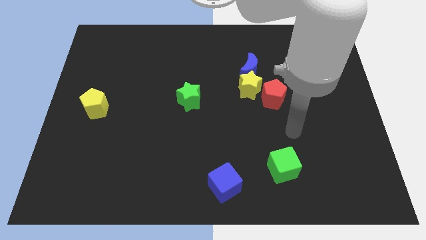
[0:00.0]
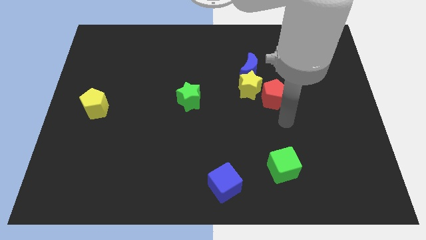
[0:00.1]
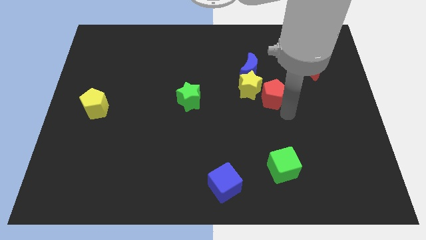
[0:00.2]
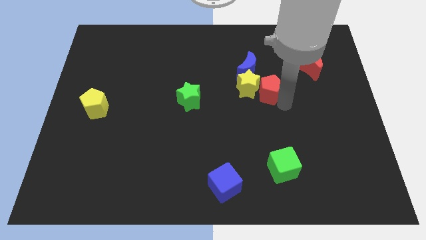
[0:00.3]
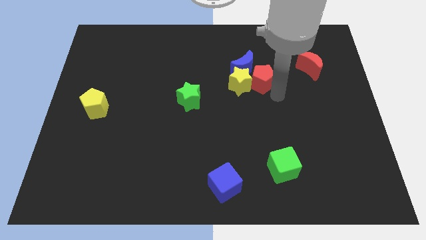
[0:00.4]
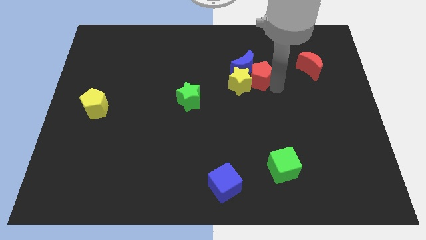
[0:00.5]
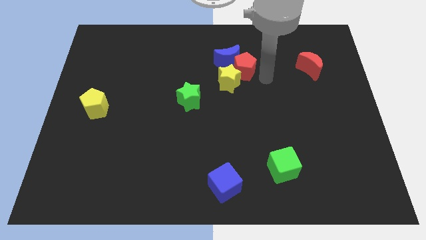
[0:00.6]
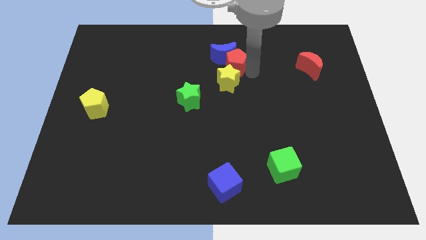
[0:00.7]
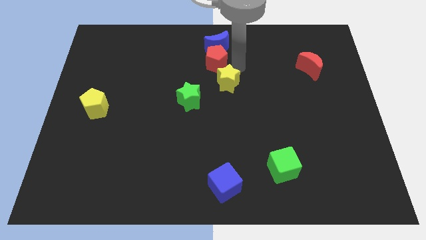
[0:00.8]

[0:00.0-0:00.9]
pull the yellow star apart from the blue moon and red pentagon

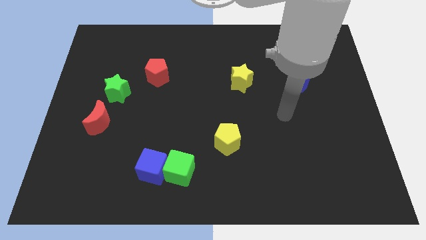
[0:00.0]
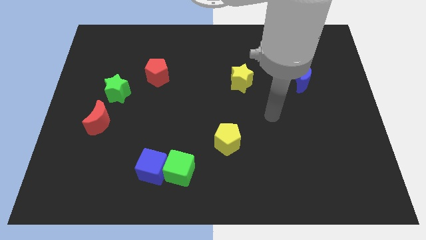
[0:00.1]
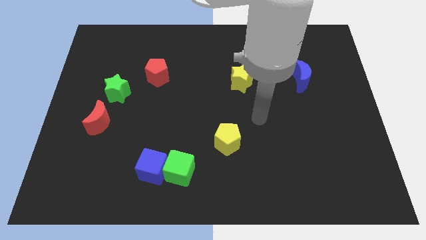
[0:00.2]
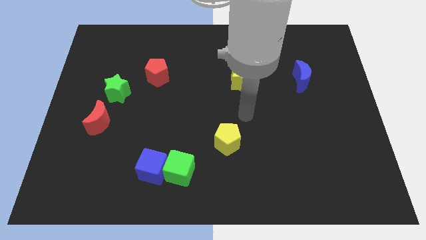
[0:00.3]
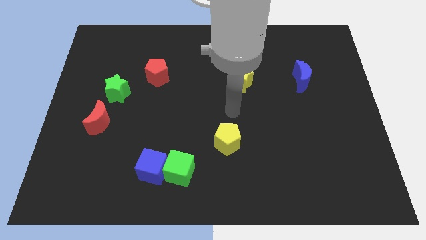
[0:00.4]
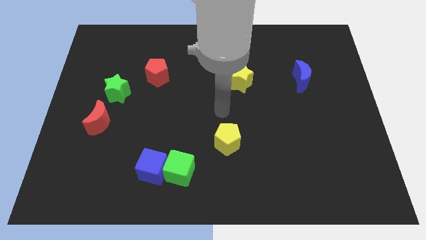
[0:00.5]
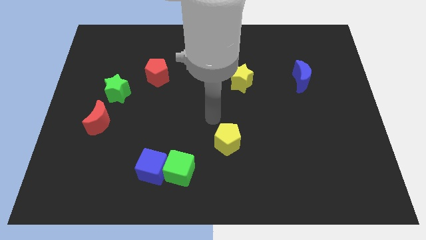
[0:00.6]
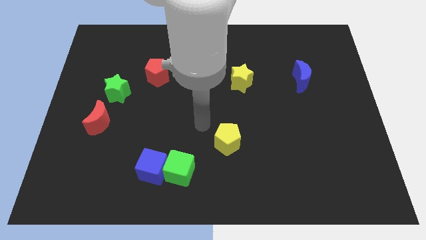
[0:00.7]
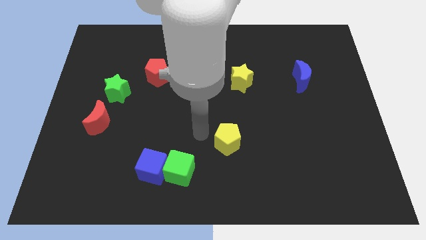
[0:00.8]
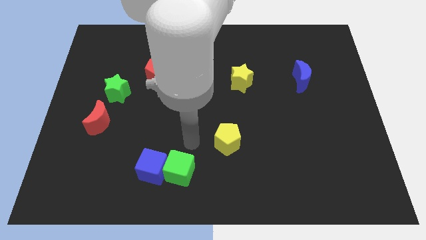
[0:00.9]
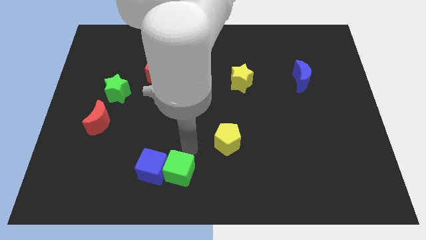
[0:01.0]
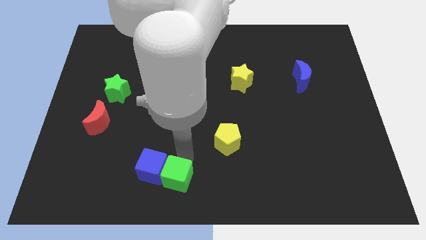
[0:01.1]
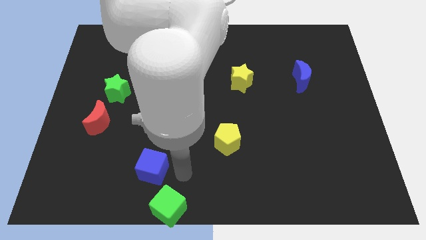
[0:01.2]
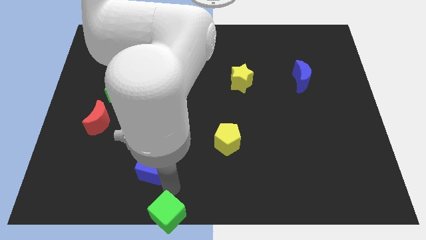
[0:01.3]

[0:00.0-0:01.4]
pull the blue cube apart from the green cube

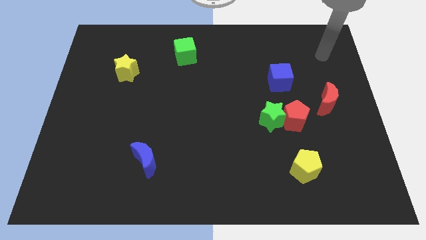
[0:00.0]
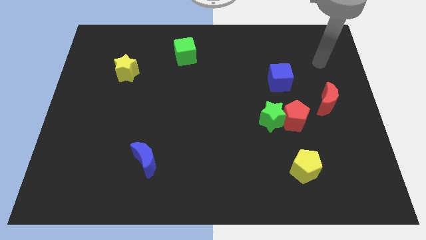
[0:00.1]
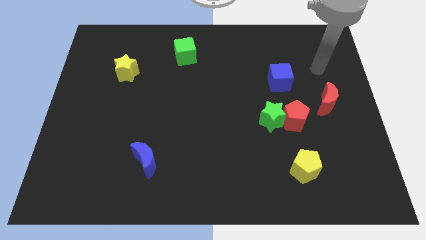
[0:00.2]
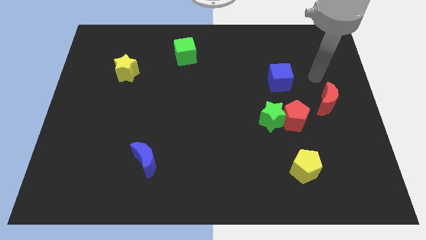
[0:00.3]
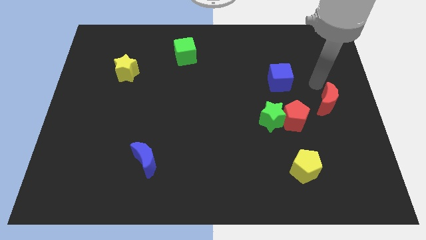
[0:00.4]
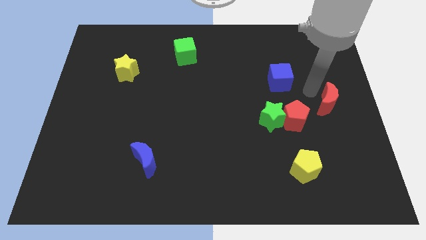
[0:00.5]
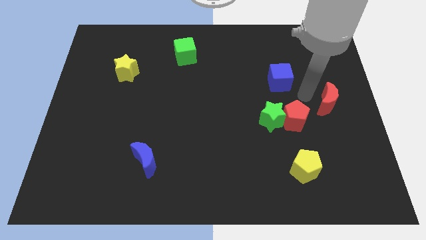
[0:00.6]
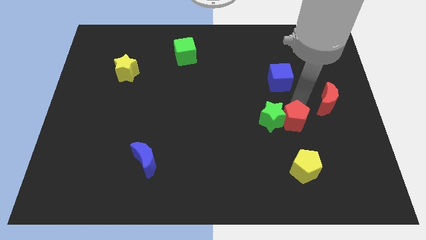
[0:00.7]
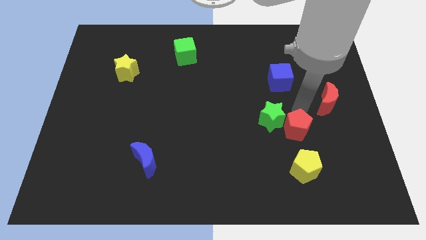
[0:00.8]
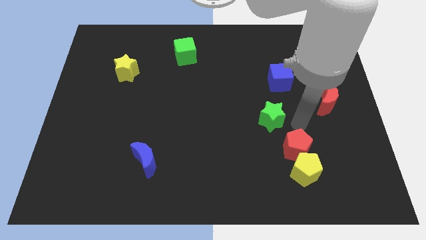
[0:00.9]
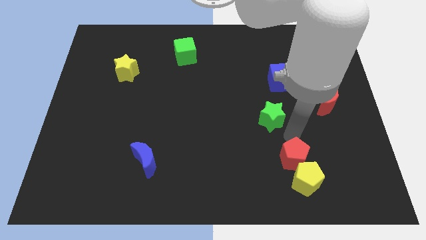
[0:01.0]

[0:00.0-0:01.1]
separate the green star from the red pentagon

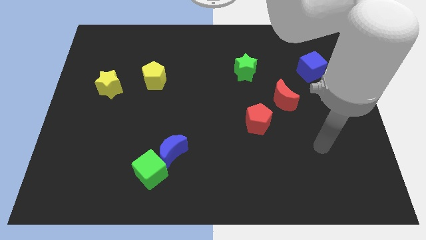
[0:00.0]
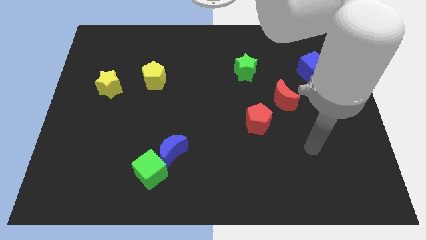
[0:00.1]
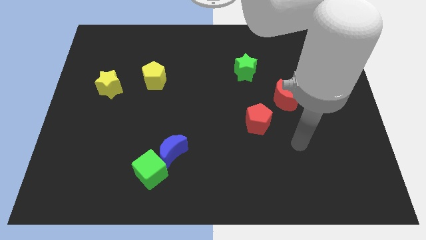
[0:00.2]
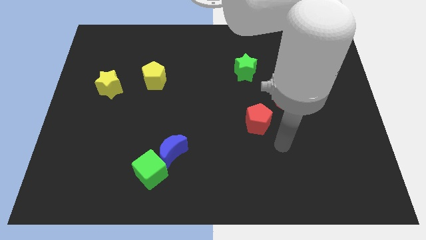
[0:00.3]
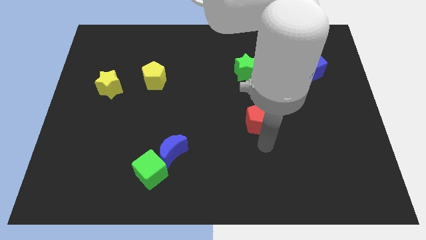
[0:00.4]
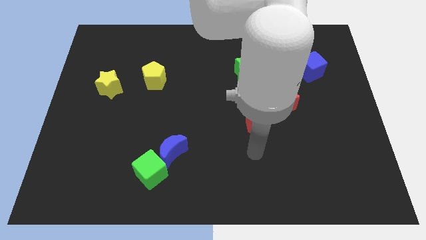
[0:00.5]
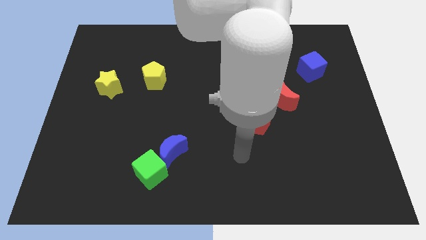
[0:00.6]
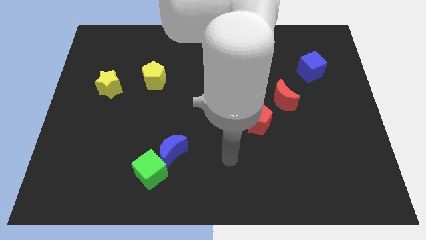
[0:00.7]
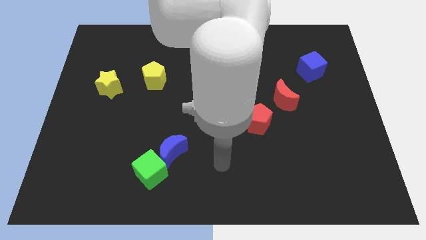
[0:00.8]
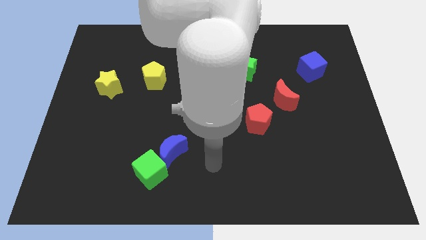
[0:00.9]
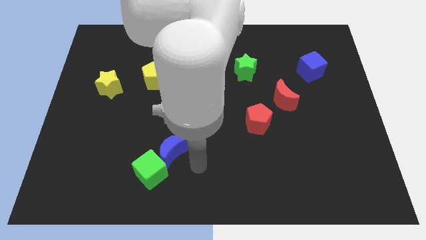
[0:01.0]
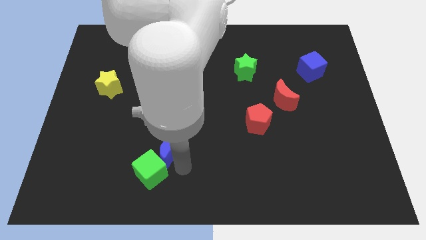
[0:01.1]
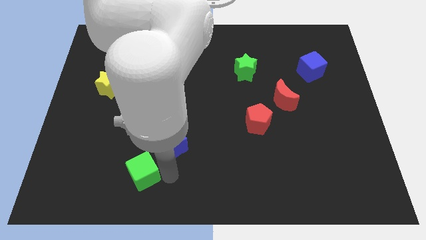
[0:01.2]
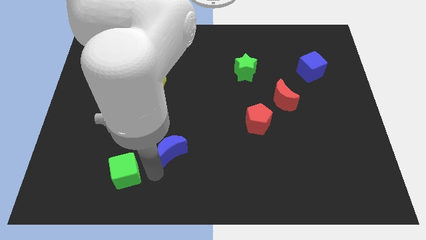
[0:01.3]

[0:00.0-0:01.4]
move the blue moon away from the green cube

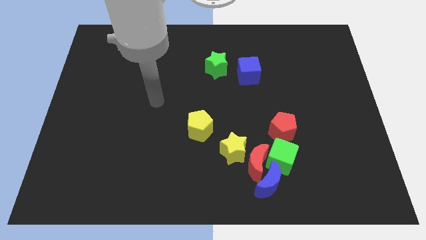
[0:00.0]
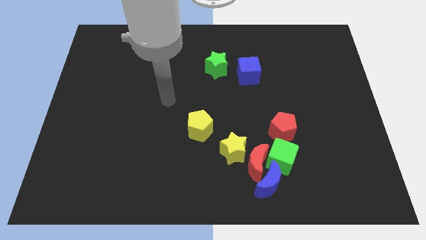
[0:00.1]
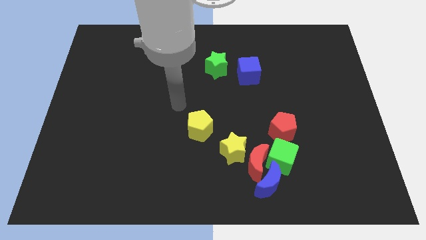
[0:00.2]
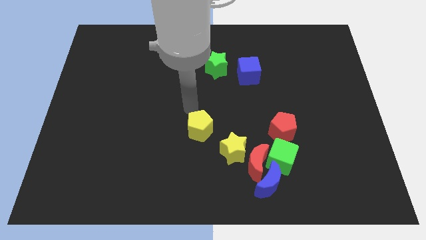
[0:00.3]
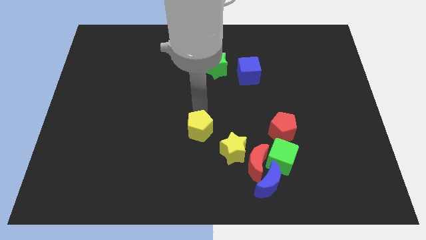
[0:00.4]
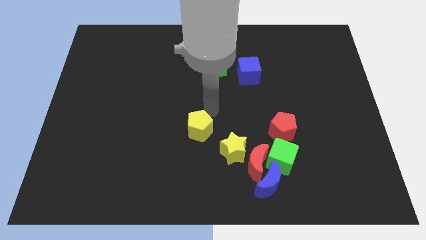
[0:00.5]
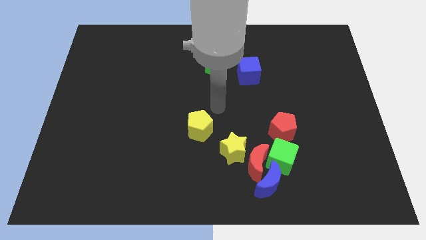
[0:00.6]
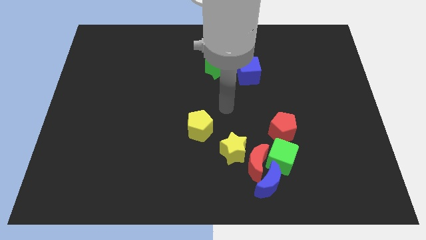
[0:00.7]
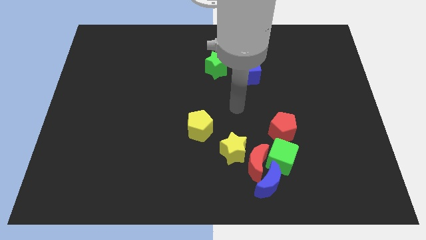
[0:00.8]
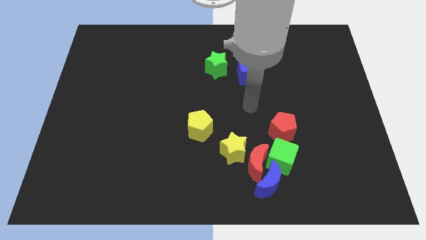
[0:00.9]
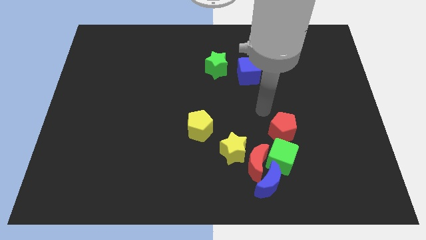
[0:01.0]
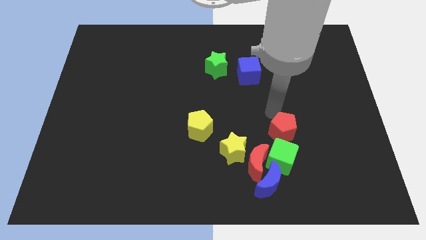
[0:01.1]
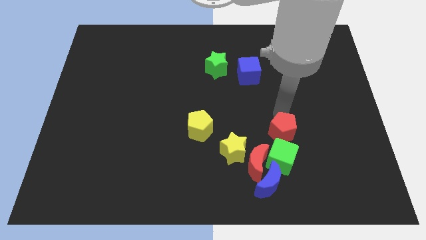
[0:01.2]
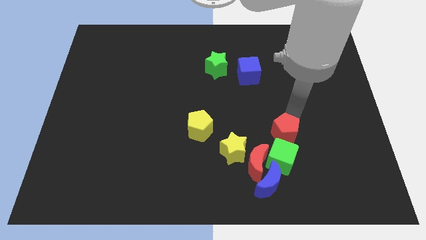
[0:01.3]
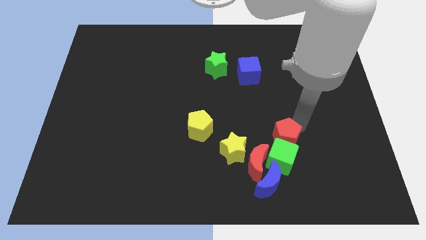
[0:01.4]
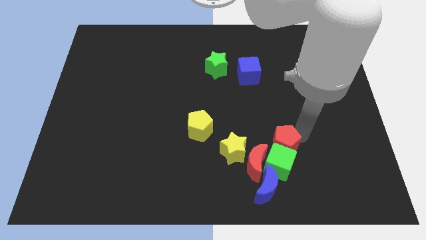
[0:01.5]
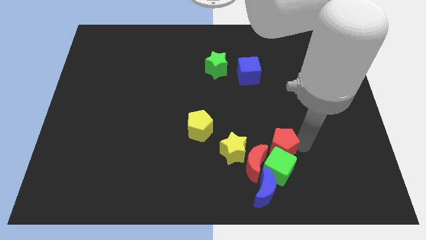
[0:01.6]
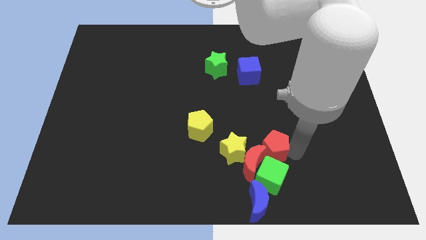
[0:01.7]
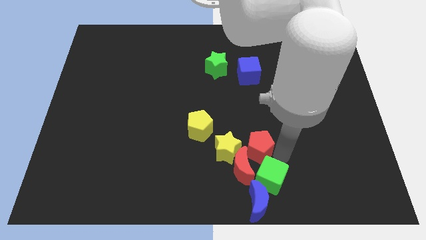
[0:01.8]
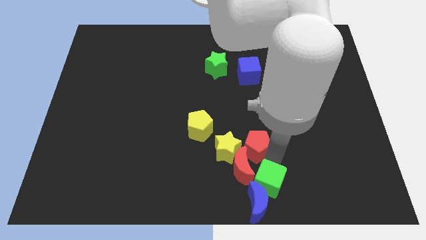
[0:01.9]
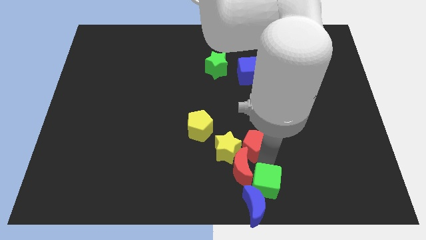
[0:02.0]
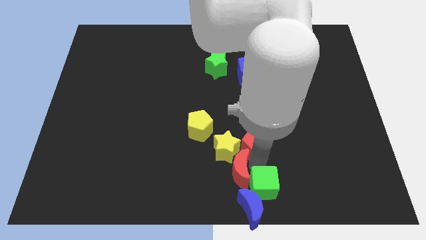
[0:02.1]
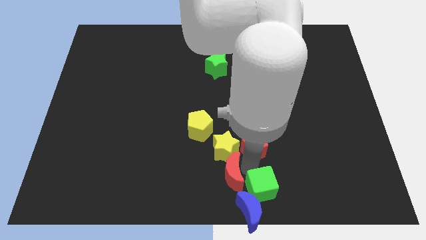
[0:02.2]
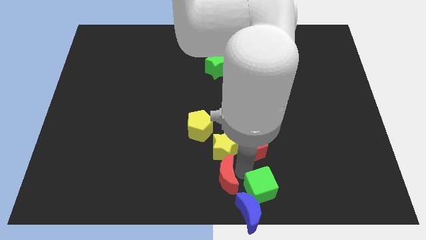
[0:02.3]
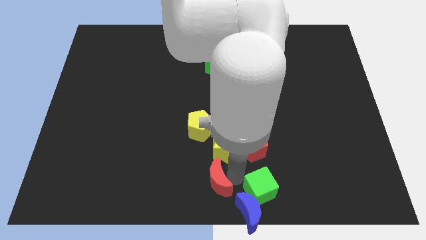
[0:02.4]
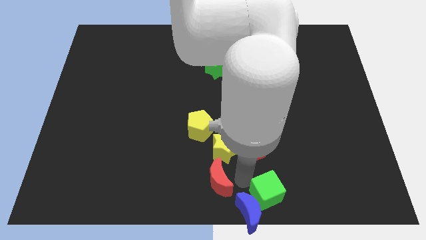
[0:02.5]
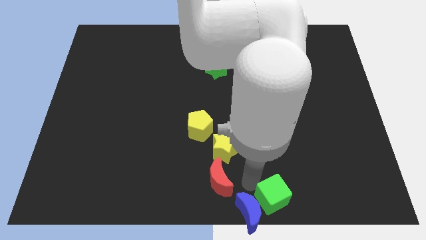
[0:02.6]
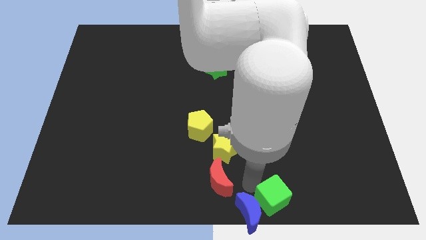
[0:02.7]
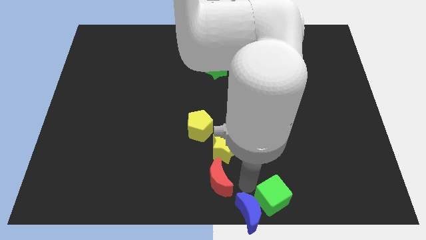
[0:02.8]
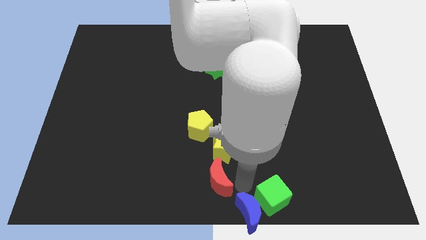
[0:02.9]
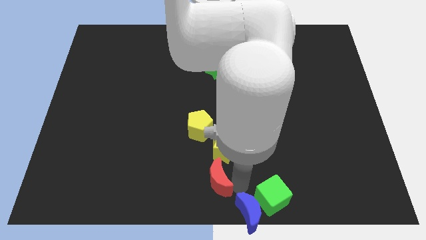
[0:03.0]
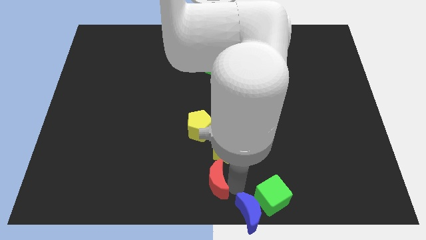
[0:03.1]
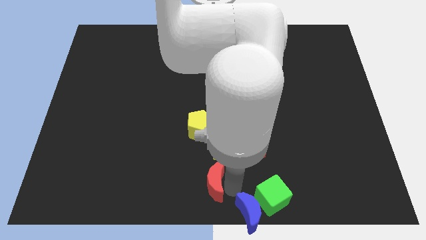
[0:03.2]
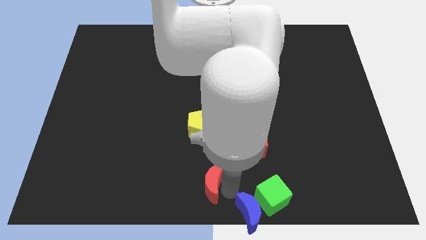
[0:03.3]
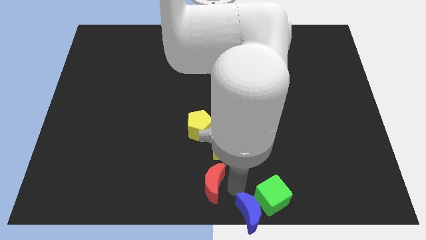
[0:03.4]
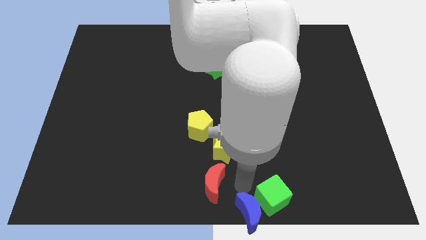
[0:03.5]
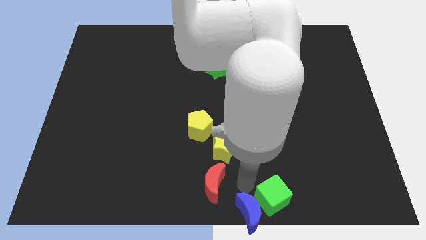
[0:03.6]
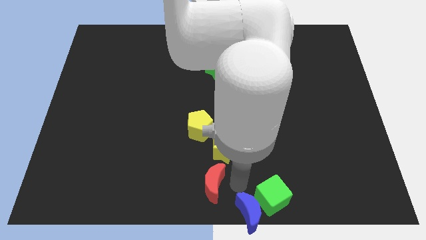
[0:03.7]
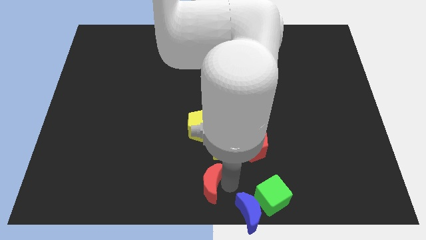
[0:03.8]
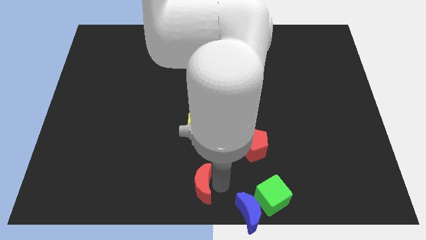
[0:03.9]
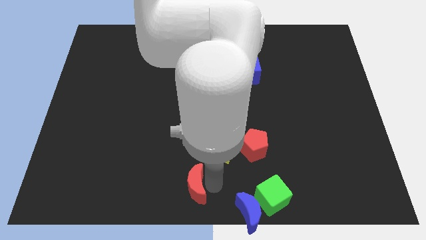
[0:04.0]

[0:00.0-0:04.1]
separate the red moon from the clump

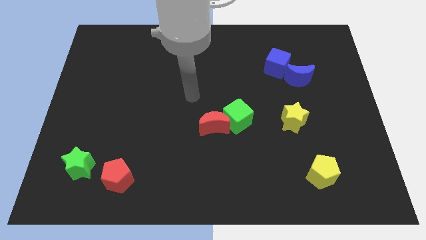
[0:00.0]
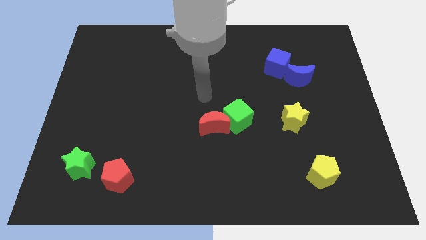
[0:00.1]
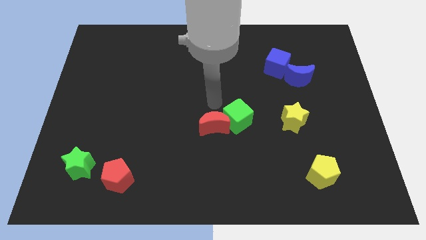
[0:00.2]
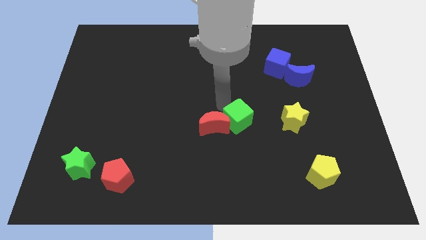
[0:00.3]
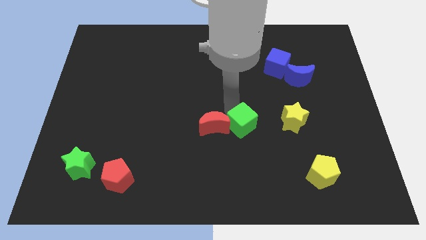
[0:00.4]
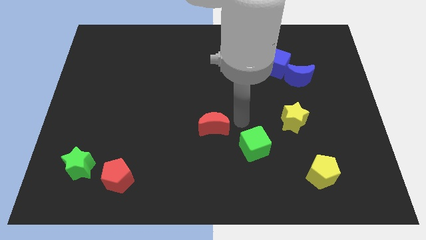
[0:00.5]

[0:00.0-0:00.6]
pull the red moon apart from the green cube
